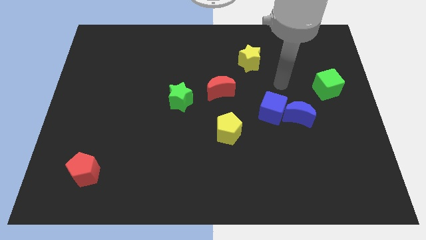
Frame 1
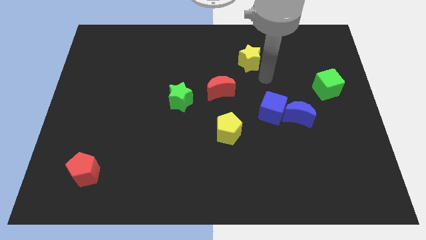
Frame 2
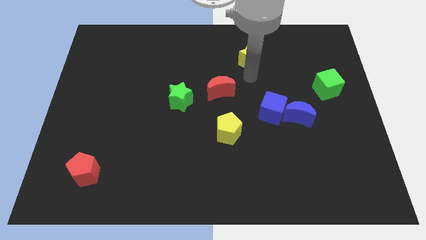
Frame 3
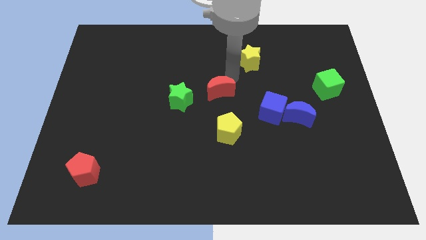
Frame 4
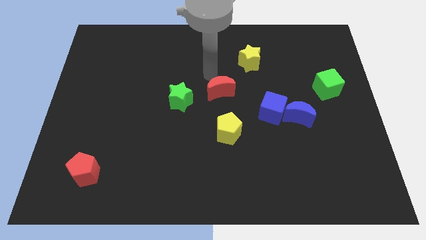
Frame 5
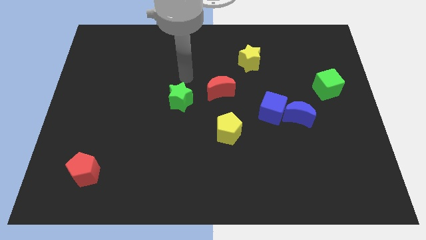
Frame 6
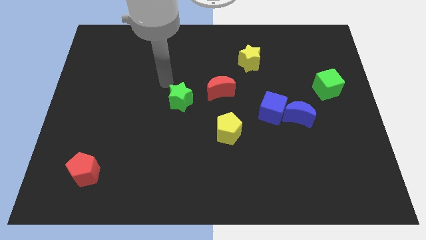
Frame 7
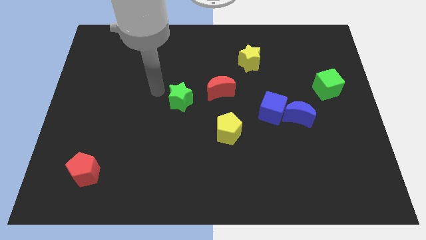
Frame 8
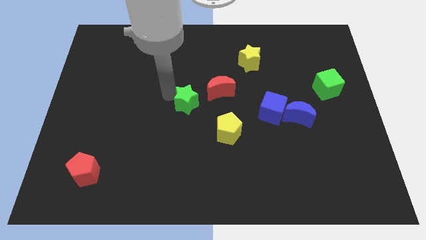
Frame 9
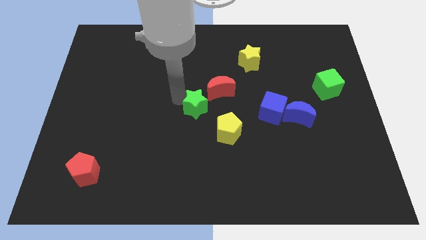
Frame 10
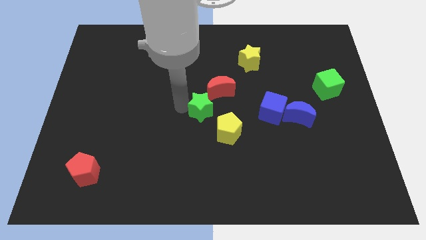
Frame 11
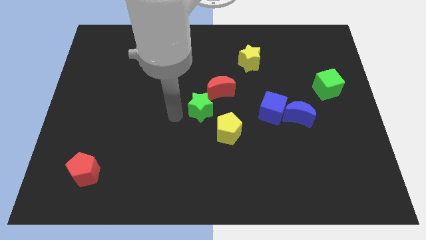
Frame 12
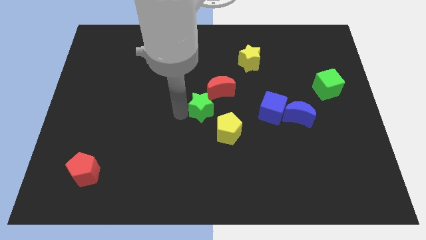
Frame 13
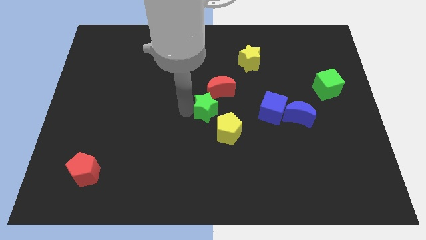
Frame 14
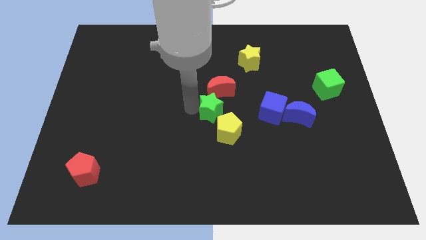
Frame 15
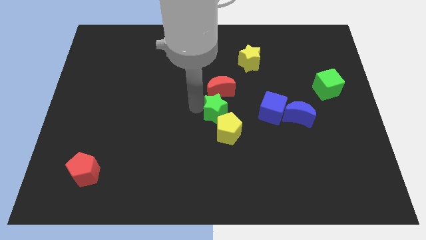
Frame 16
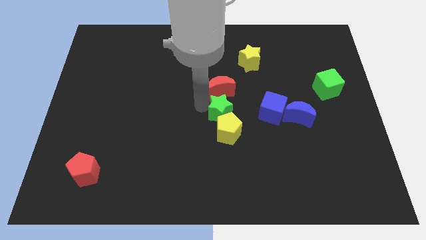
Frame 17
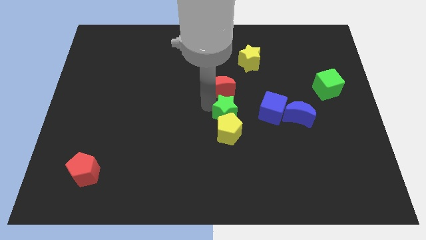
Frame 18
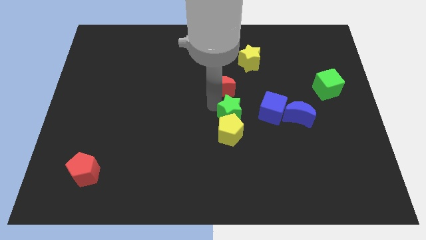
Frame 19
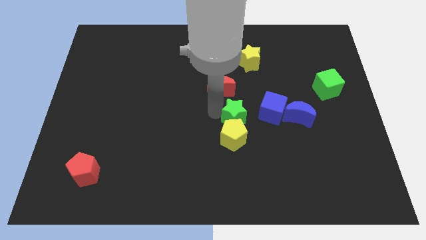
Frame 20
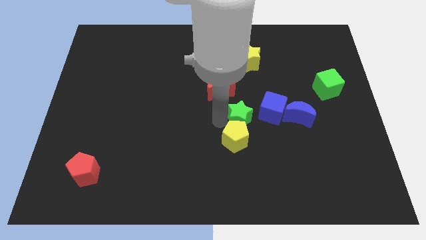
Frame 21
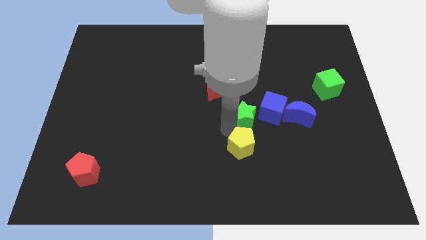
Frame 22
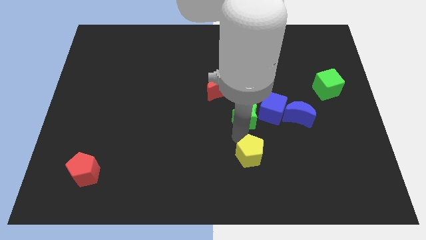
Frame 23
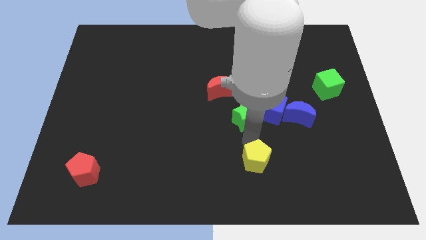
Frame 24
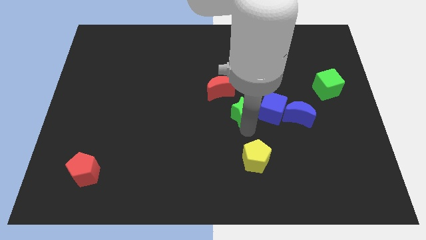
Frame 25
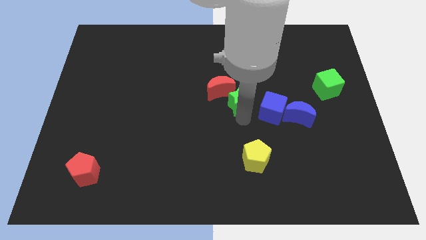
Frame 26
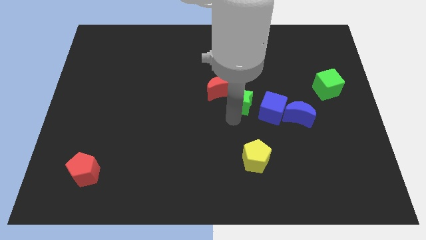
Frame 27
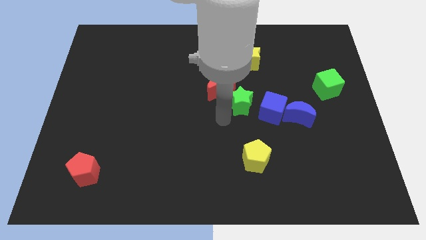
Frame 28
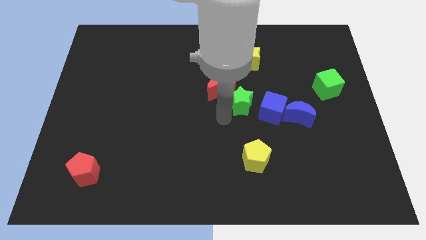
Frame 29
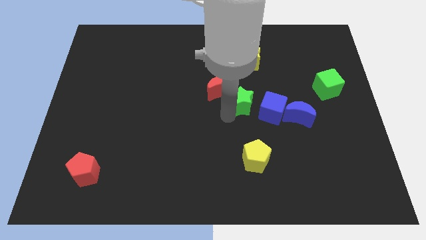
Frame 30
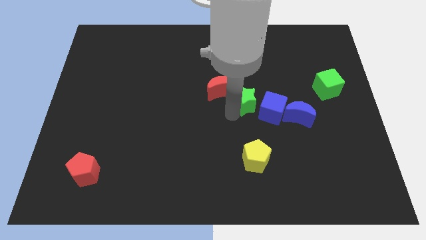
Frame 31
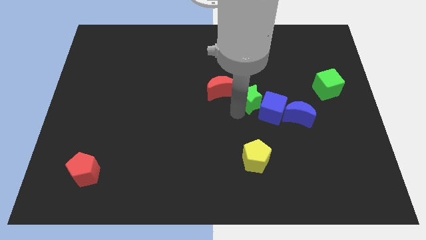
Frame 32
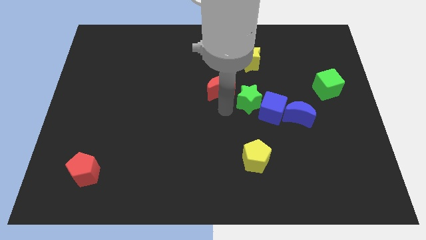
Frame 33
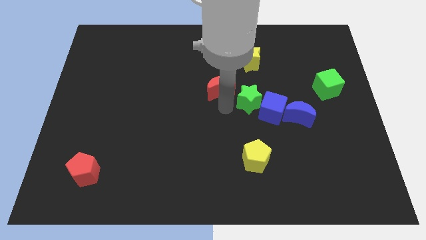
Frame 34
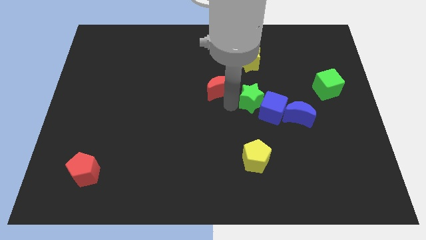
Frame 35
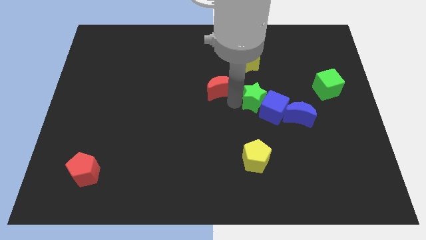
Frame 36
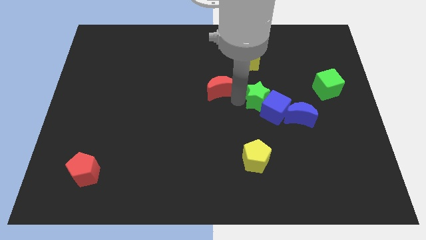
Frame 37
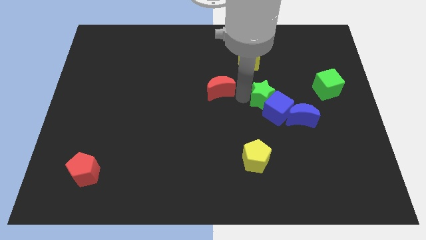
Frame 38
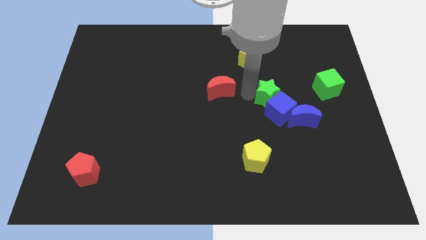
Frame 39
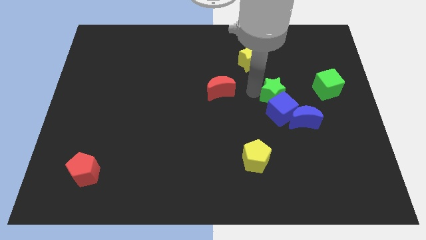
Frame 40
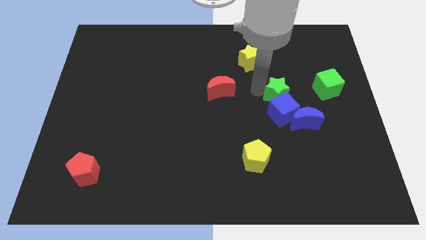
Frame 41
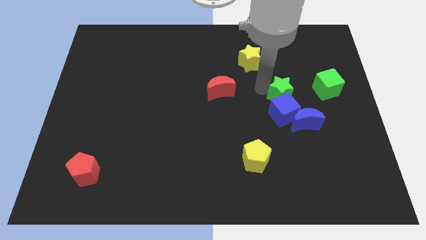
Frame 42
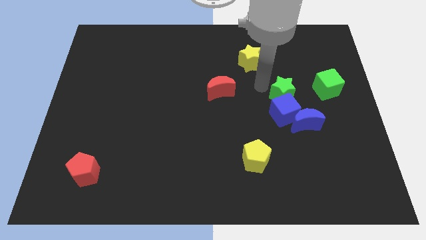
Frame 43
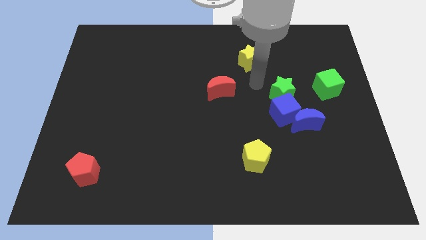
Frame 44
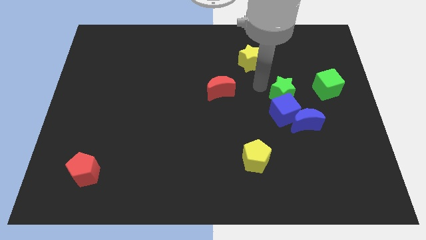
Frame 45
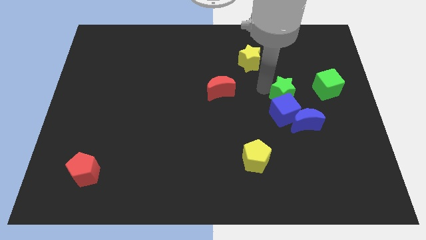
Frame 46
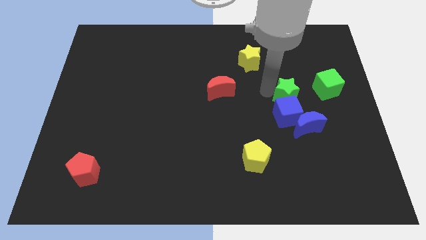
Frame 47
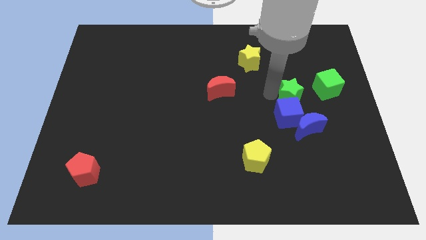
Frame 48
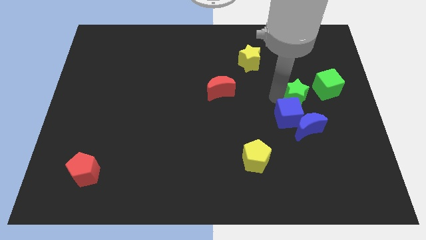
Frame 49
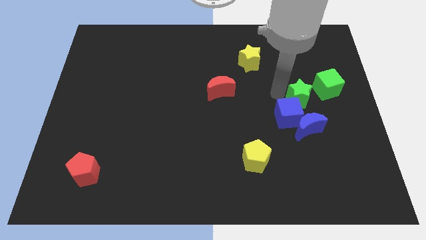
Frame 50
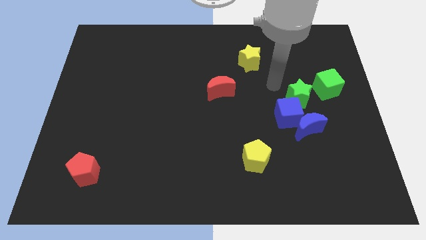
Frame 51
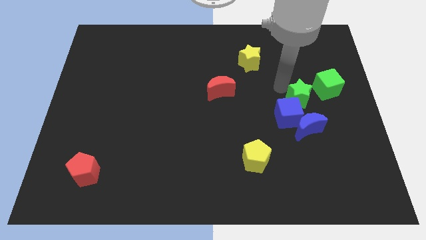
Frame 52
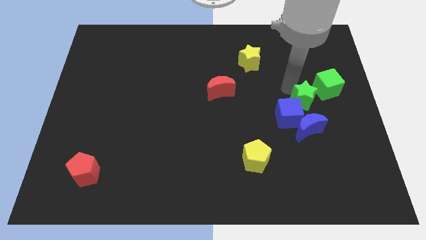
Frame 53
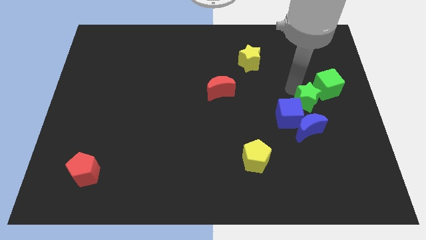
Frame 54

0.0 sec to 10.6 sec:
move the green star just right of the blue cube

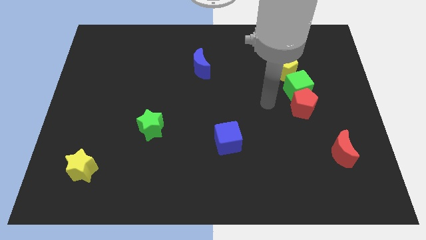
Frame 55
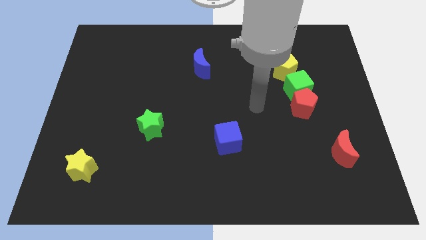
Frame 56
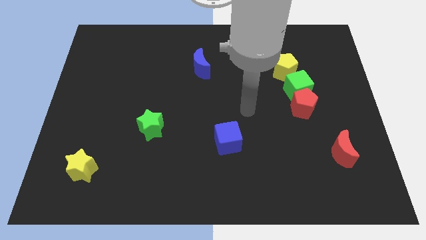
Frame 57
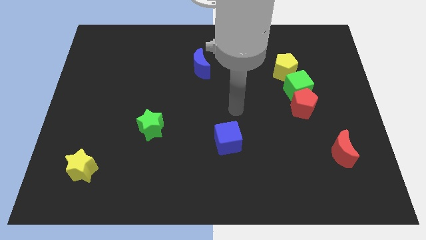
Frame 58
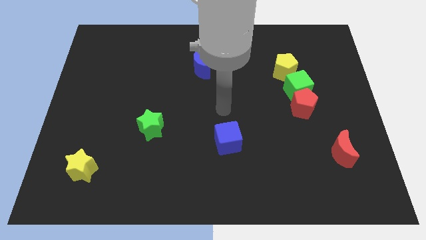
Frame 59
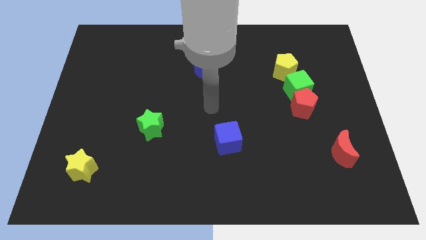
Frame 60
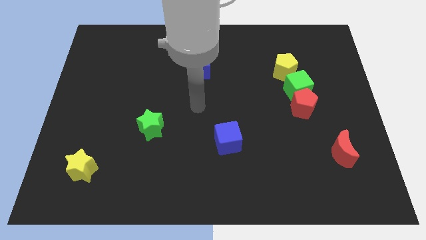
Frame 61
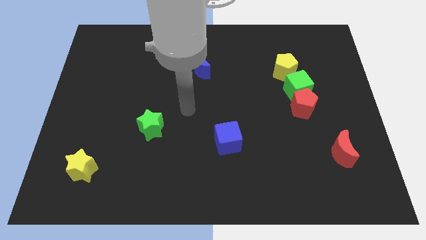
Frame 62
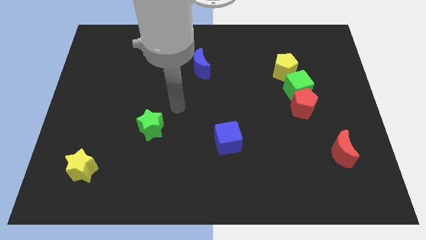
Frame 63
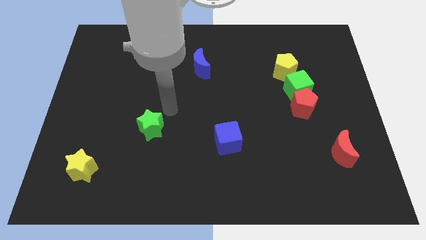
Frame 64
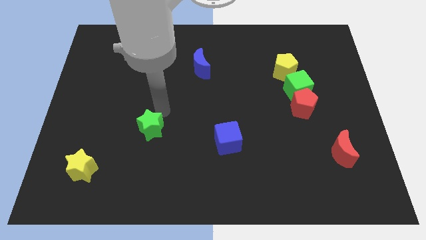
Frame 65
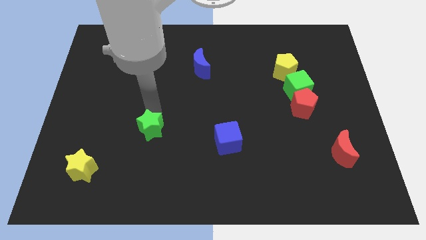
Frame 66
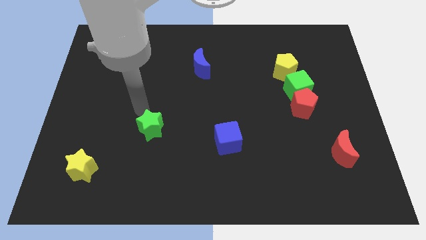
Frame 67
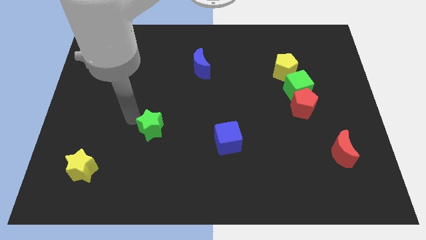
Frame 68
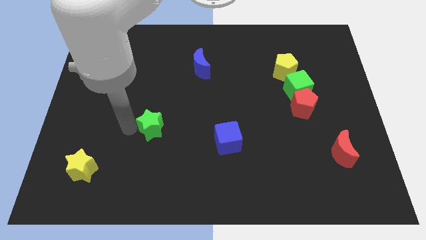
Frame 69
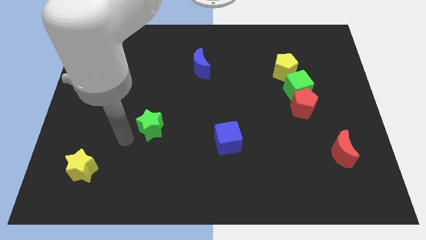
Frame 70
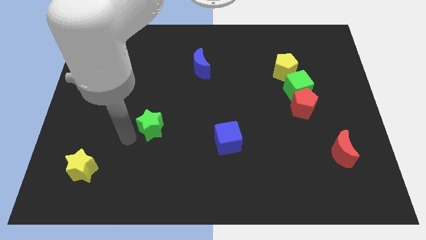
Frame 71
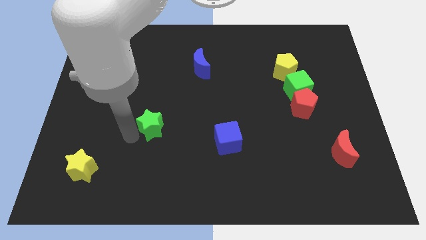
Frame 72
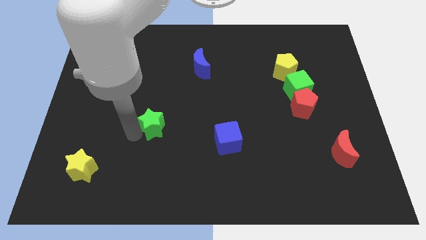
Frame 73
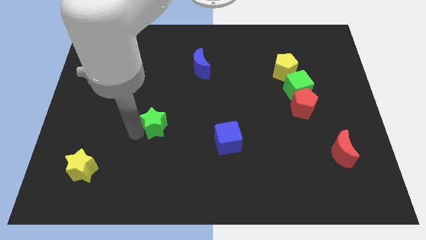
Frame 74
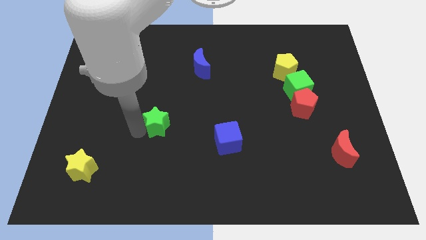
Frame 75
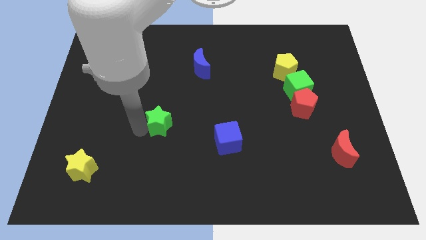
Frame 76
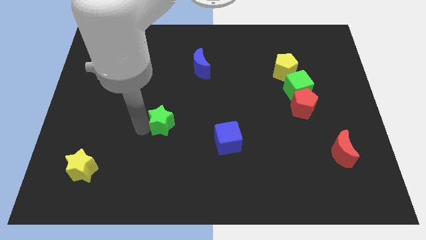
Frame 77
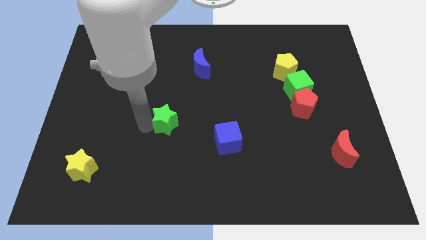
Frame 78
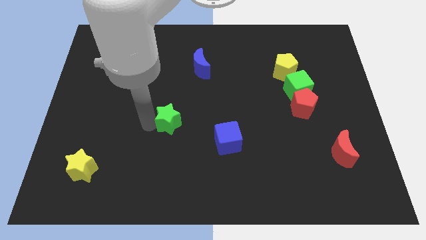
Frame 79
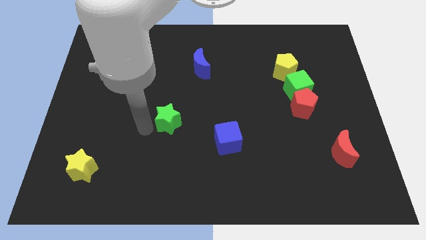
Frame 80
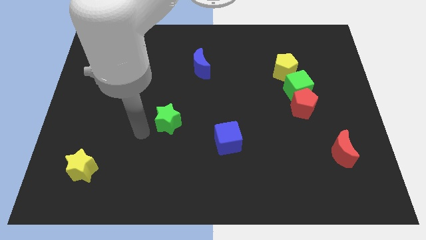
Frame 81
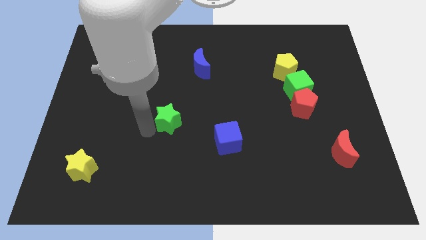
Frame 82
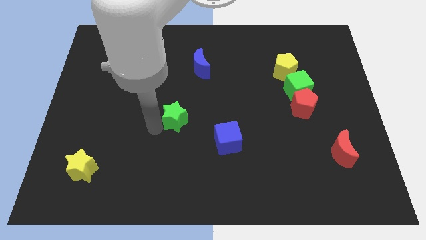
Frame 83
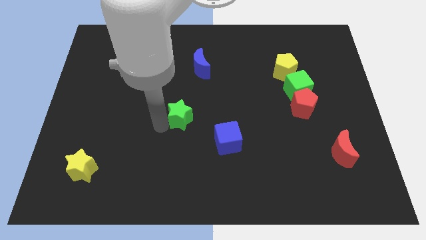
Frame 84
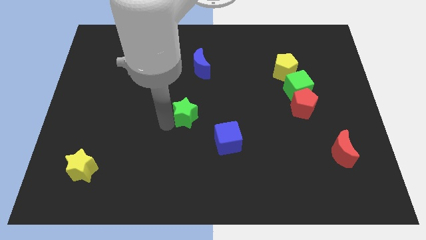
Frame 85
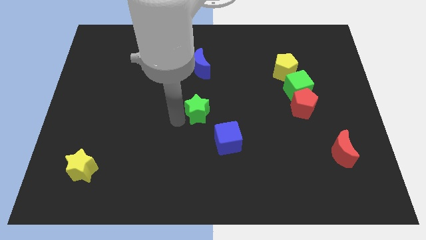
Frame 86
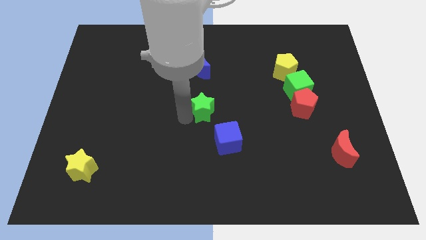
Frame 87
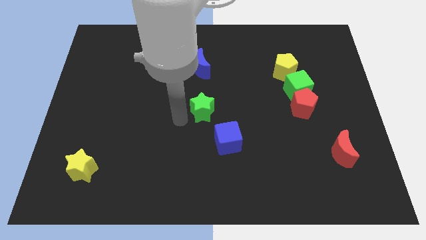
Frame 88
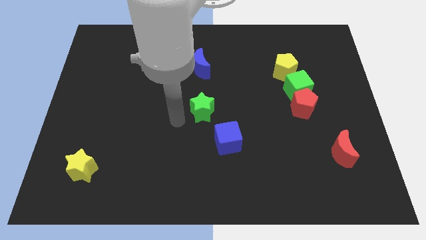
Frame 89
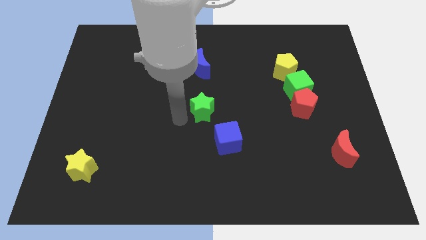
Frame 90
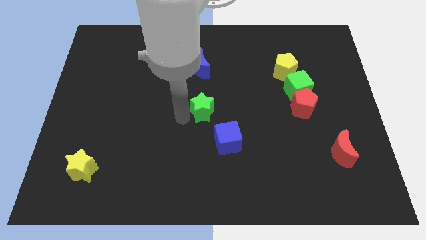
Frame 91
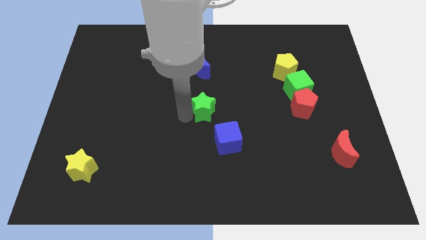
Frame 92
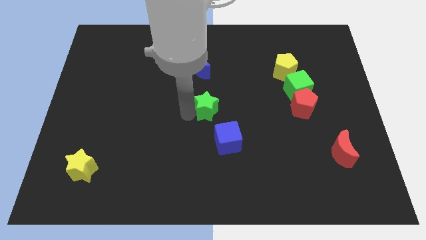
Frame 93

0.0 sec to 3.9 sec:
push the green star above the blue cube
